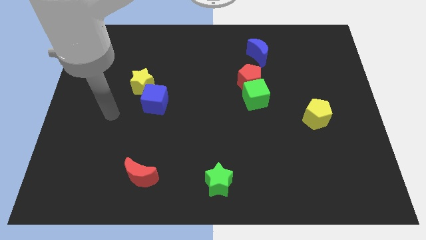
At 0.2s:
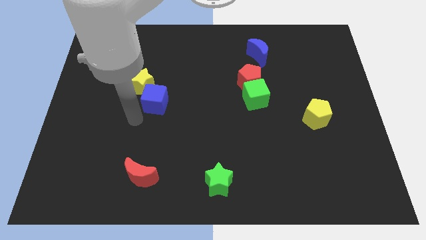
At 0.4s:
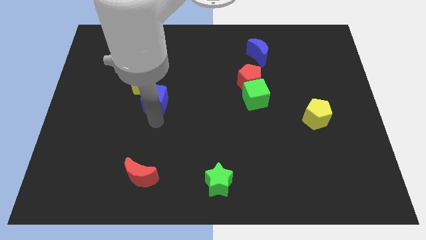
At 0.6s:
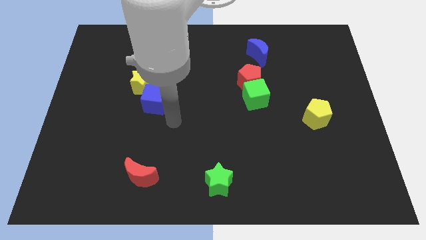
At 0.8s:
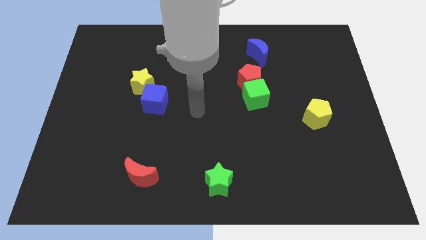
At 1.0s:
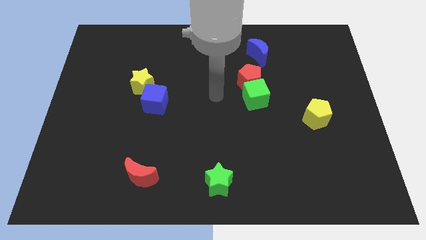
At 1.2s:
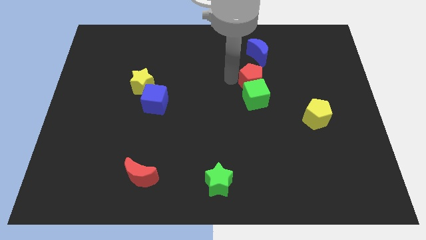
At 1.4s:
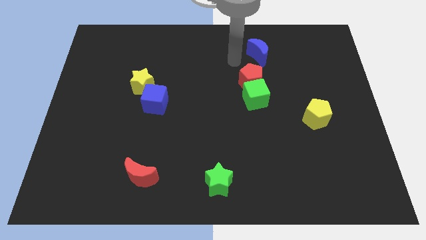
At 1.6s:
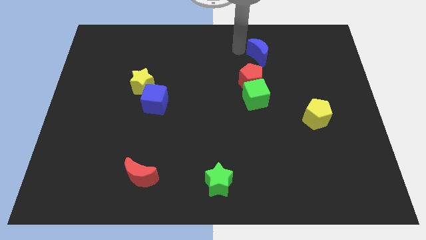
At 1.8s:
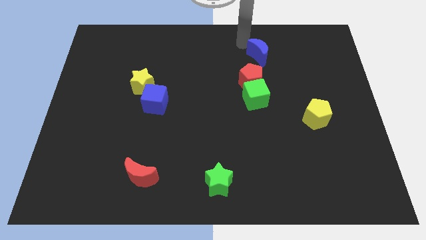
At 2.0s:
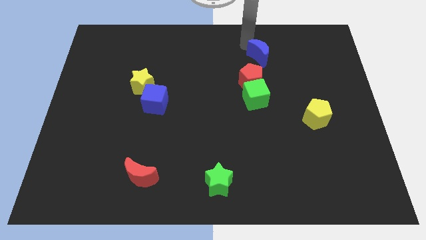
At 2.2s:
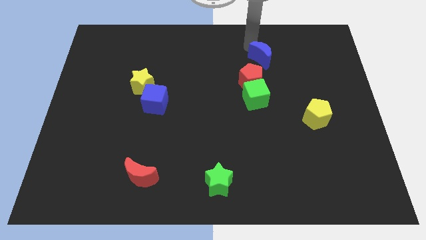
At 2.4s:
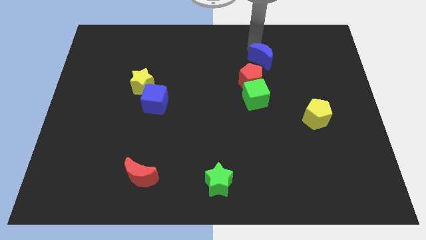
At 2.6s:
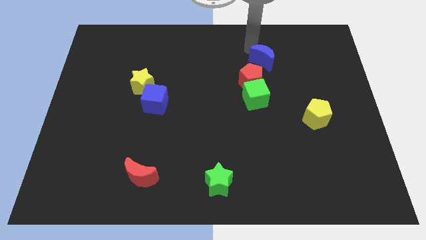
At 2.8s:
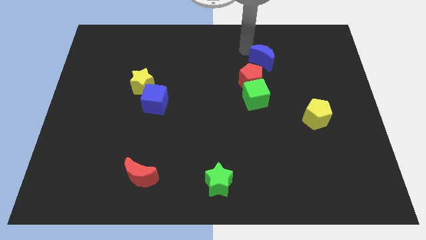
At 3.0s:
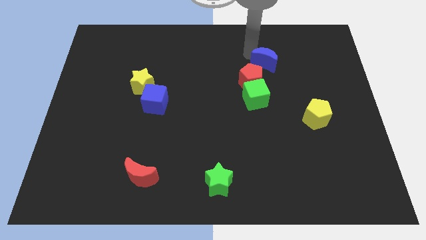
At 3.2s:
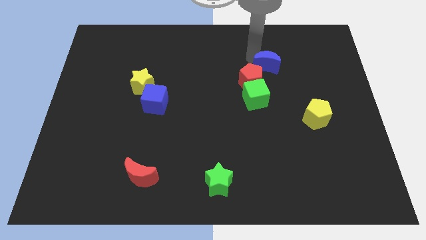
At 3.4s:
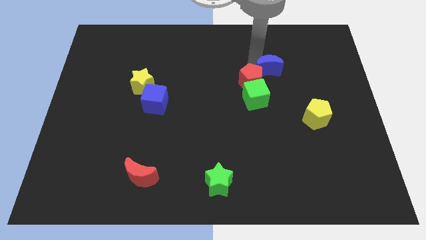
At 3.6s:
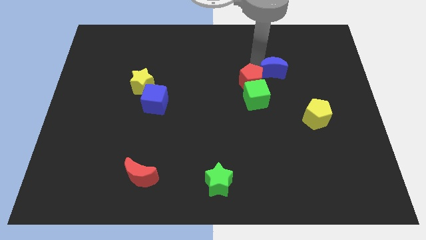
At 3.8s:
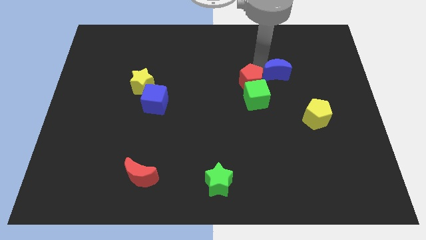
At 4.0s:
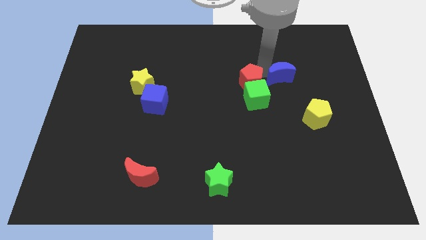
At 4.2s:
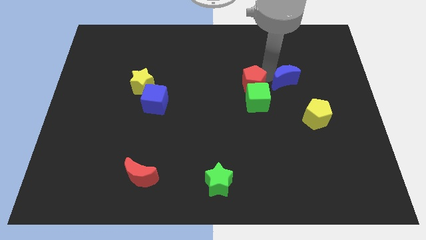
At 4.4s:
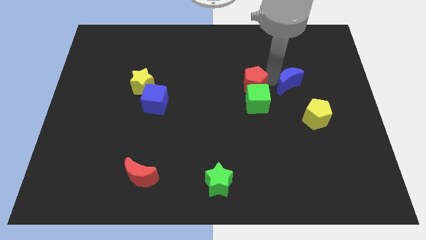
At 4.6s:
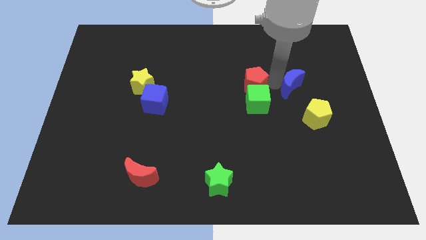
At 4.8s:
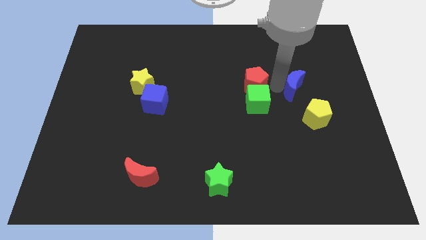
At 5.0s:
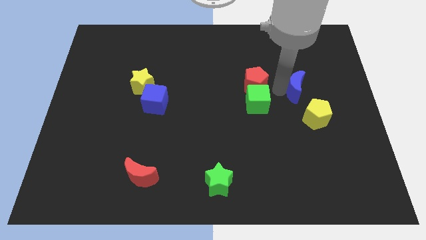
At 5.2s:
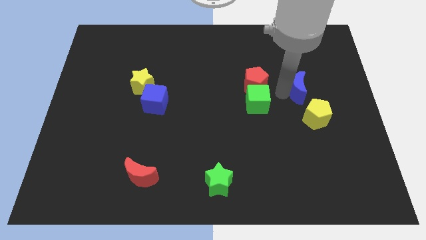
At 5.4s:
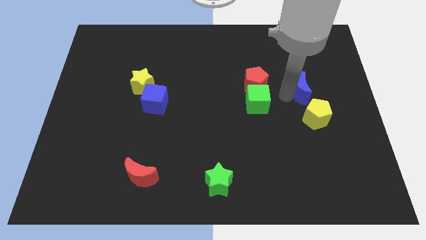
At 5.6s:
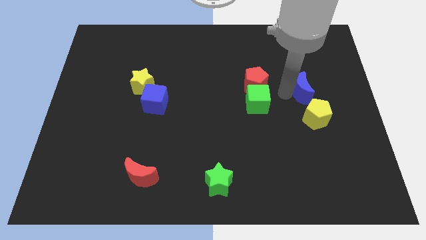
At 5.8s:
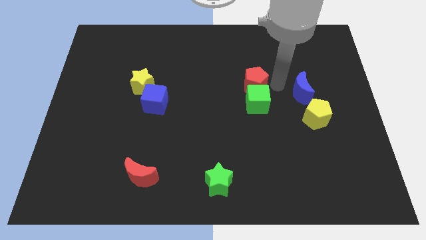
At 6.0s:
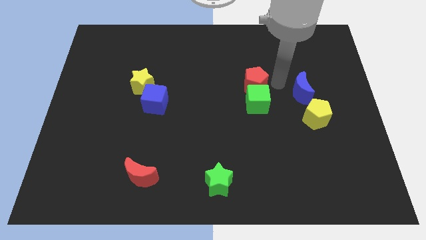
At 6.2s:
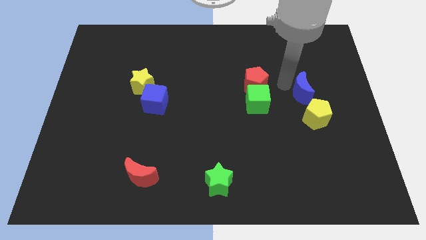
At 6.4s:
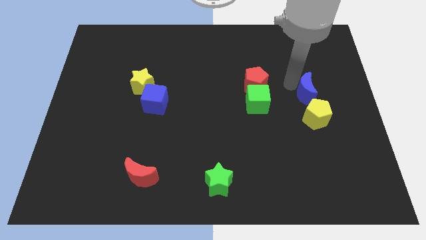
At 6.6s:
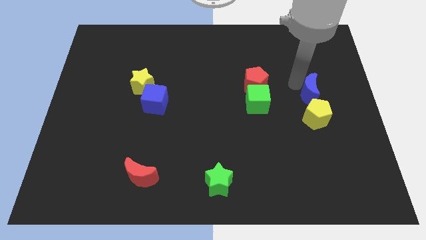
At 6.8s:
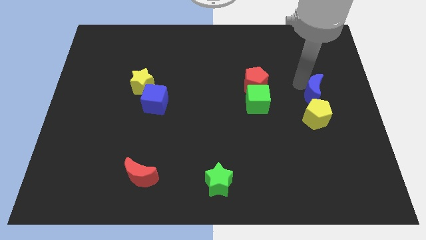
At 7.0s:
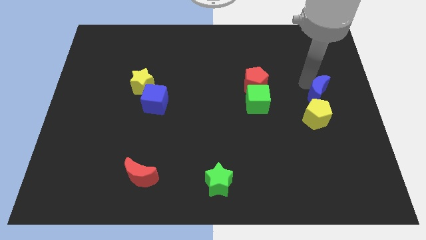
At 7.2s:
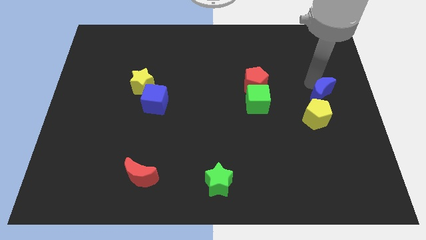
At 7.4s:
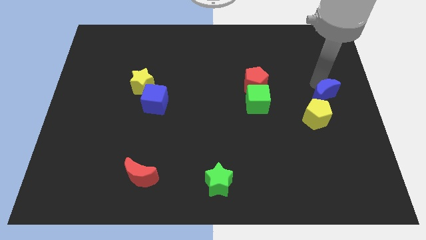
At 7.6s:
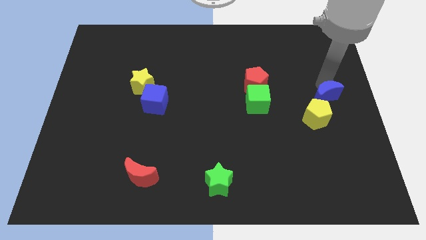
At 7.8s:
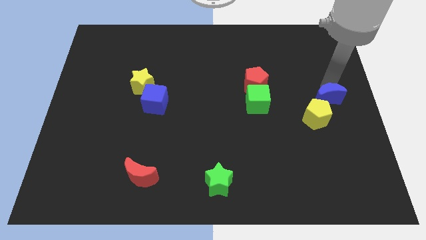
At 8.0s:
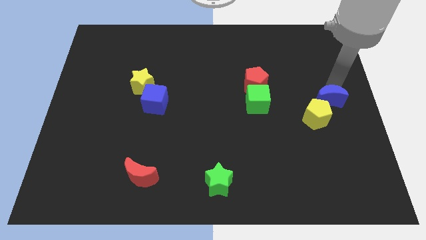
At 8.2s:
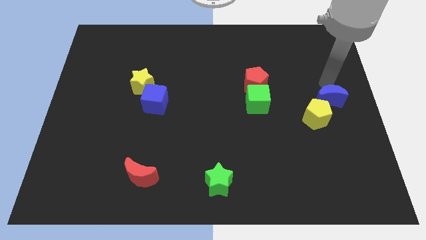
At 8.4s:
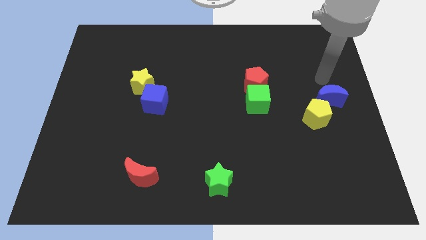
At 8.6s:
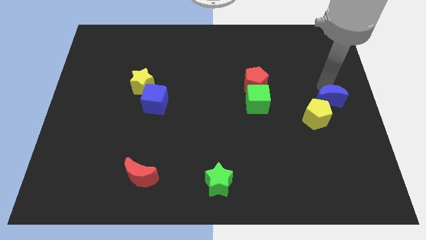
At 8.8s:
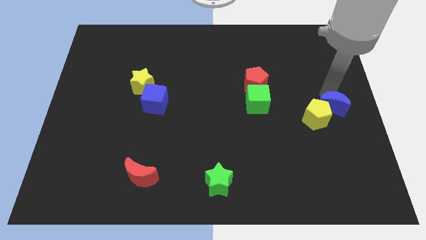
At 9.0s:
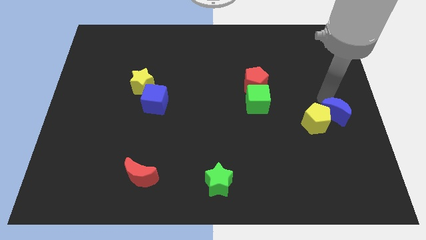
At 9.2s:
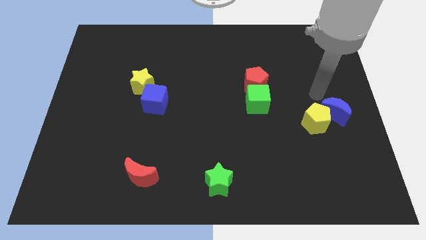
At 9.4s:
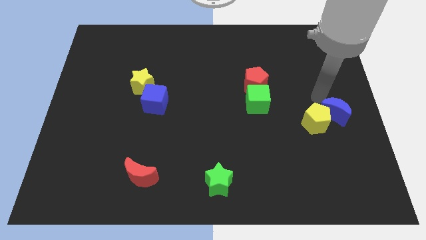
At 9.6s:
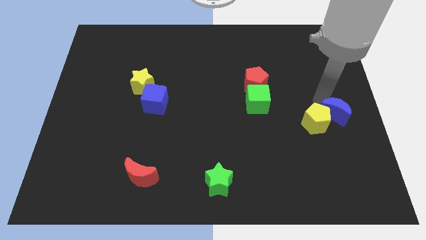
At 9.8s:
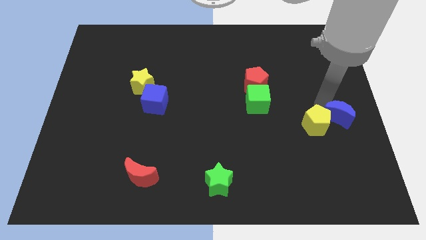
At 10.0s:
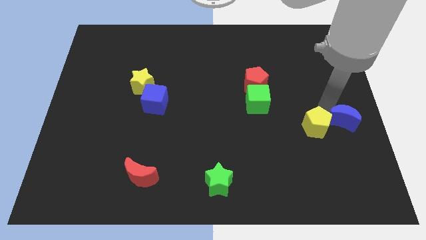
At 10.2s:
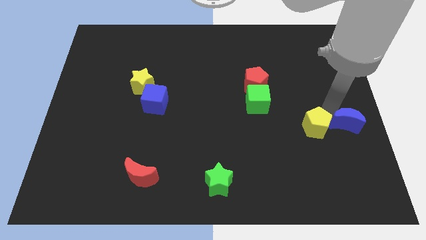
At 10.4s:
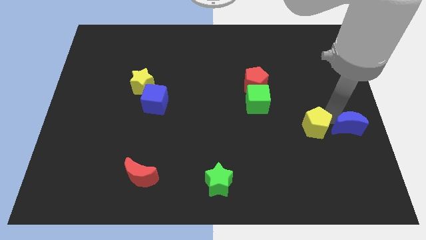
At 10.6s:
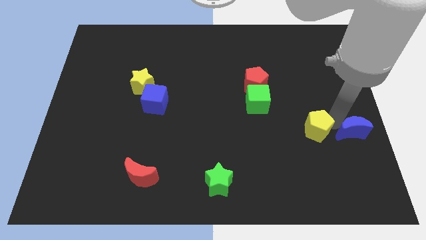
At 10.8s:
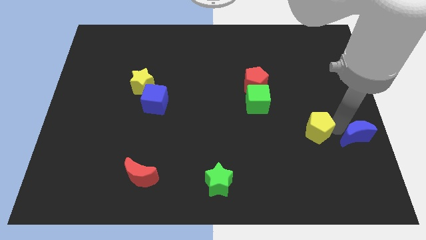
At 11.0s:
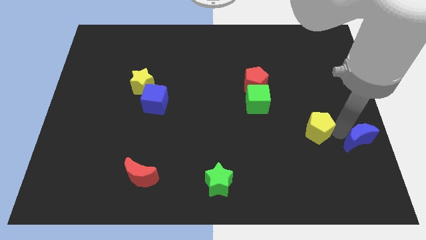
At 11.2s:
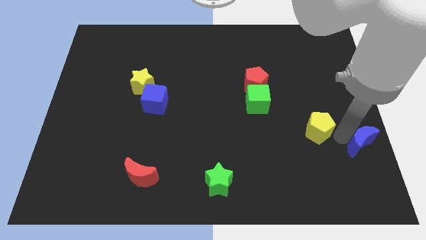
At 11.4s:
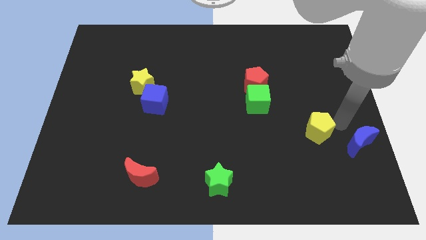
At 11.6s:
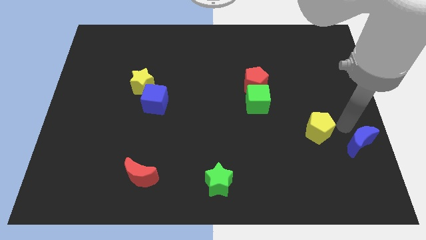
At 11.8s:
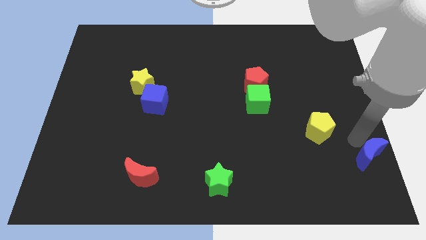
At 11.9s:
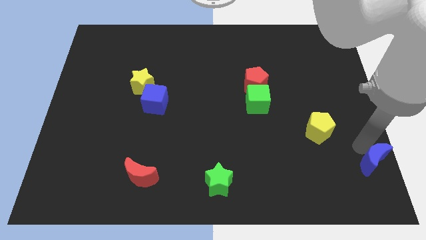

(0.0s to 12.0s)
slide the blue moon to the bottom right corner

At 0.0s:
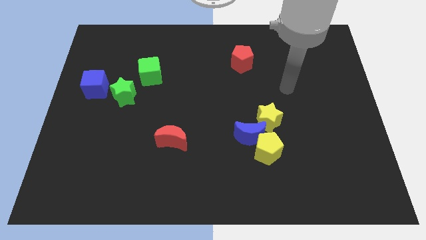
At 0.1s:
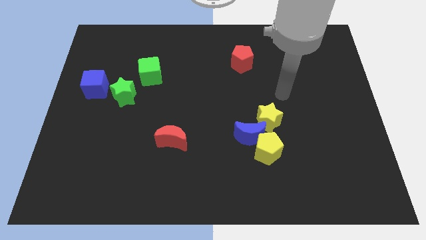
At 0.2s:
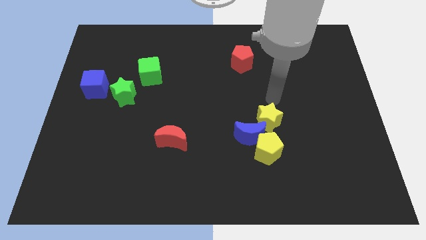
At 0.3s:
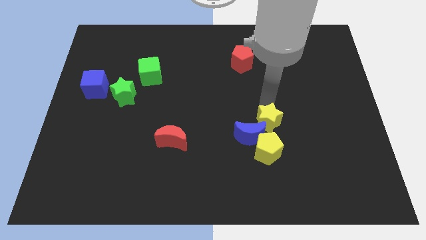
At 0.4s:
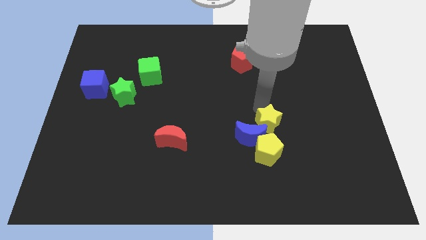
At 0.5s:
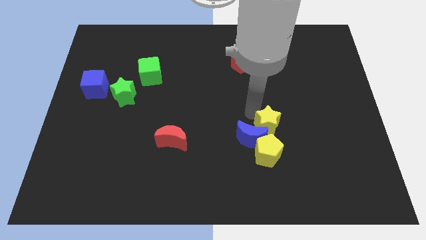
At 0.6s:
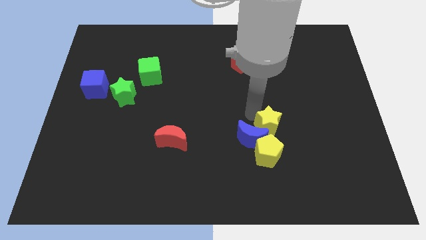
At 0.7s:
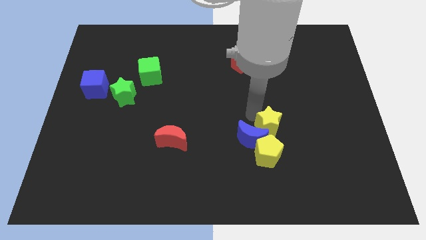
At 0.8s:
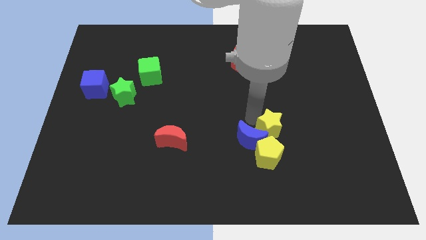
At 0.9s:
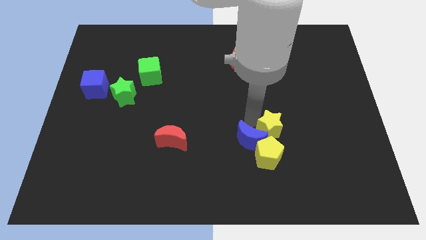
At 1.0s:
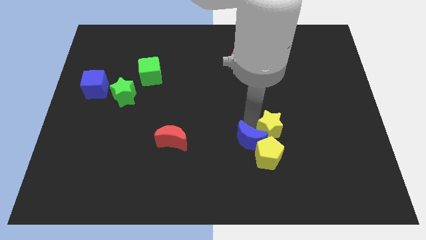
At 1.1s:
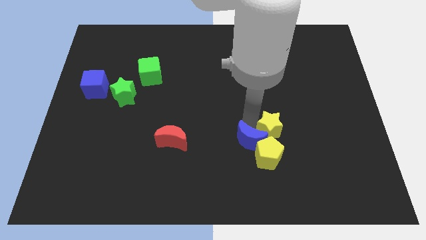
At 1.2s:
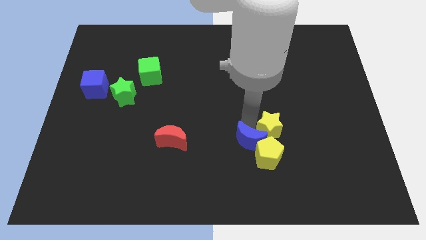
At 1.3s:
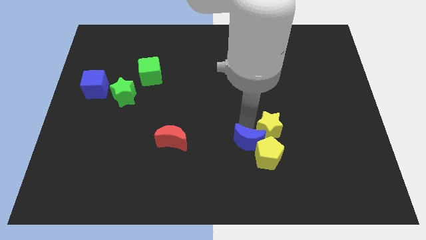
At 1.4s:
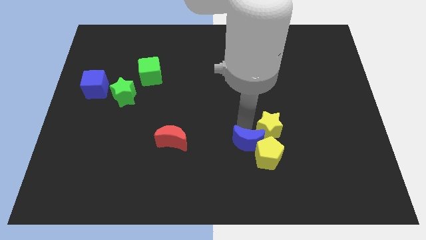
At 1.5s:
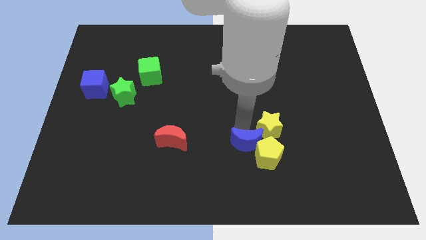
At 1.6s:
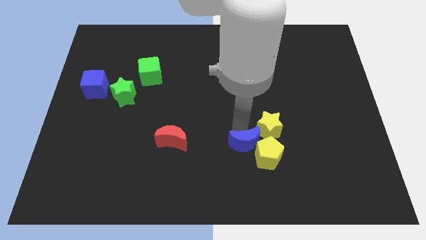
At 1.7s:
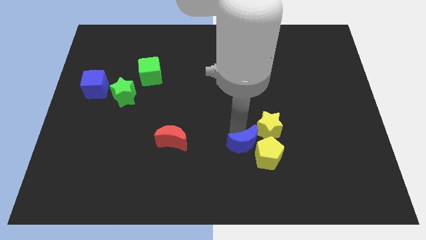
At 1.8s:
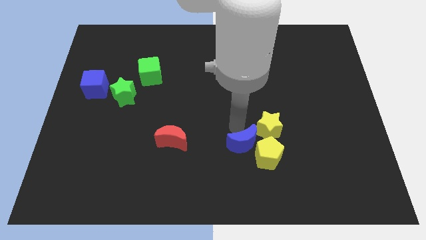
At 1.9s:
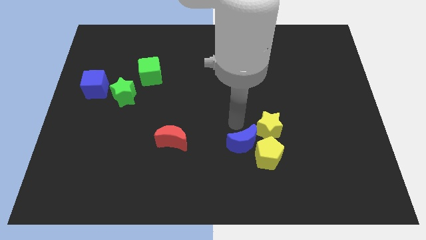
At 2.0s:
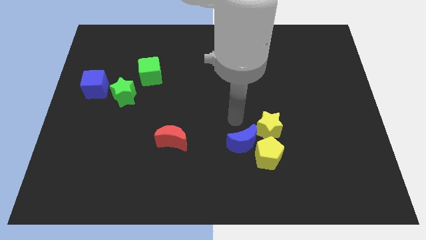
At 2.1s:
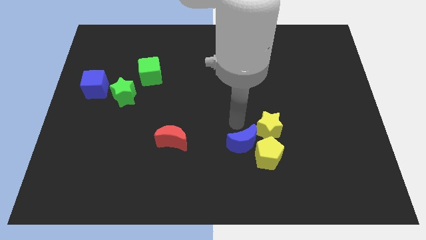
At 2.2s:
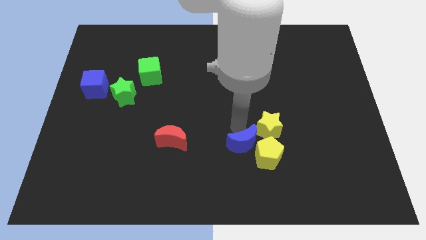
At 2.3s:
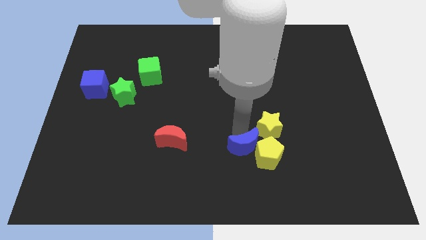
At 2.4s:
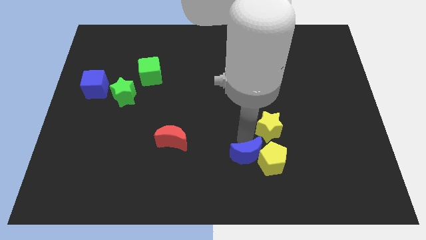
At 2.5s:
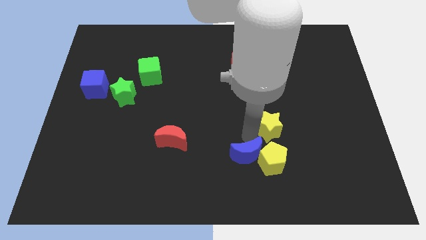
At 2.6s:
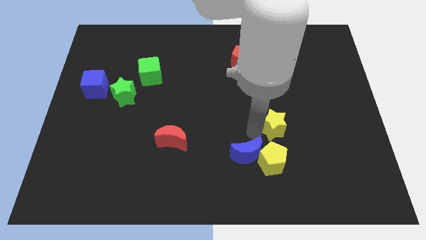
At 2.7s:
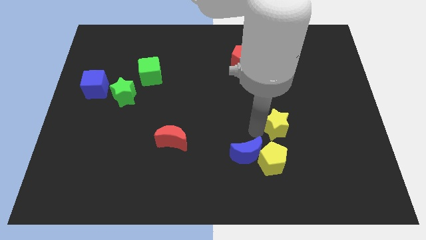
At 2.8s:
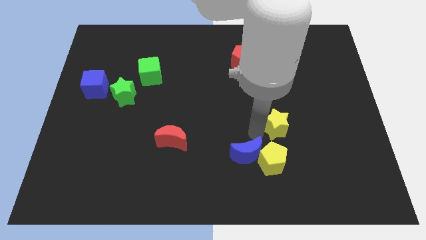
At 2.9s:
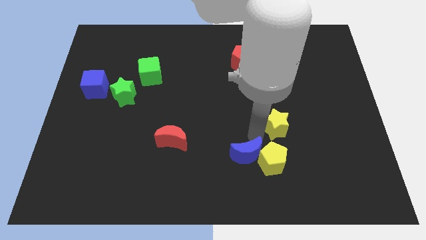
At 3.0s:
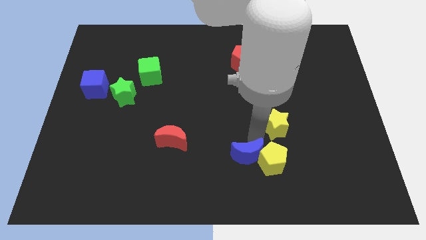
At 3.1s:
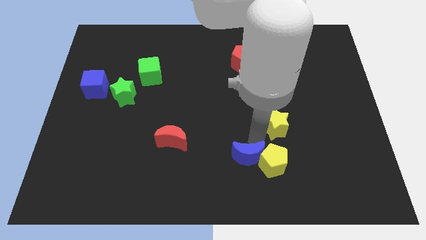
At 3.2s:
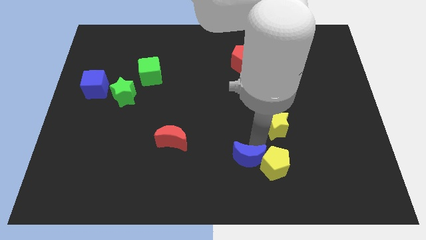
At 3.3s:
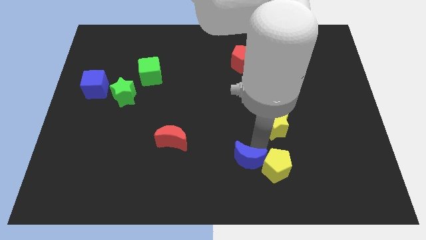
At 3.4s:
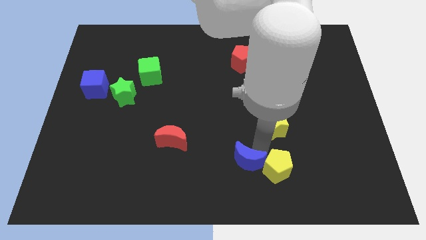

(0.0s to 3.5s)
put the blue moon to the bottom side
